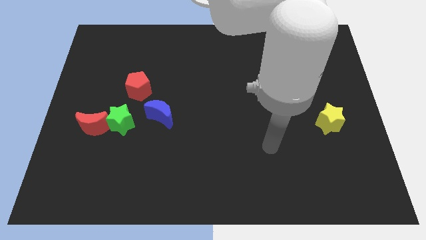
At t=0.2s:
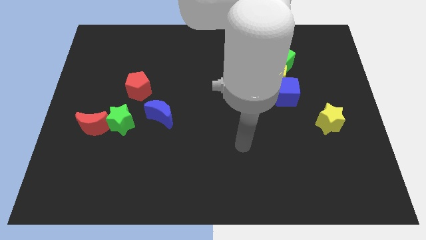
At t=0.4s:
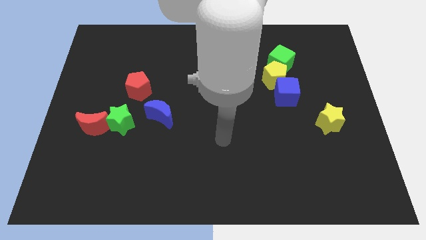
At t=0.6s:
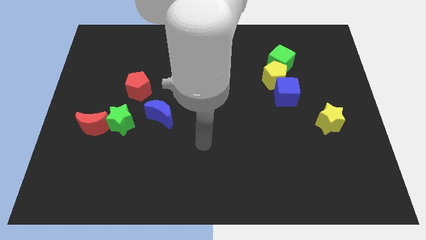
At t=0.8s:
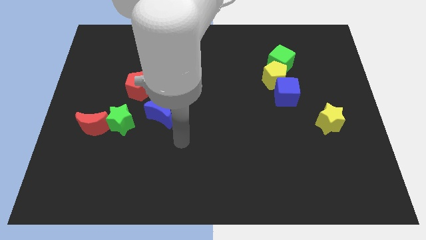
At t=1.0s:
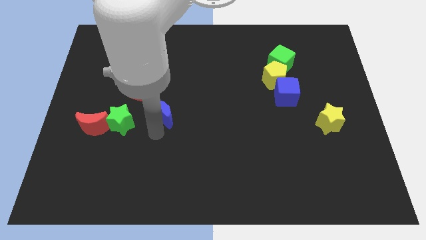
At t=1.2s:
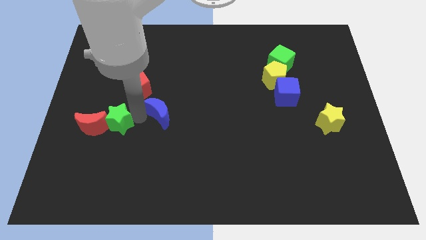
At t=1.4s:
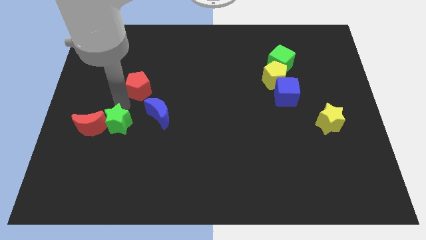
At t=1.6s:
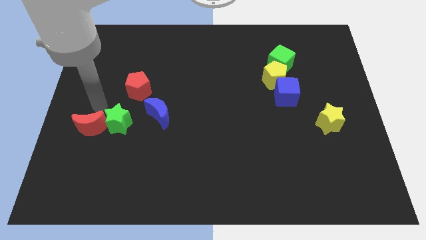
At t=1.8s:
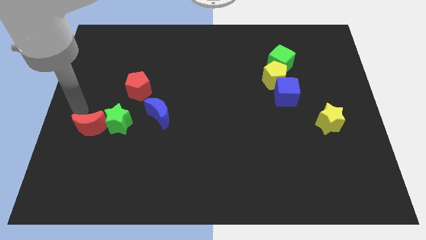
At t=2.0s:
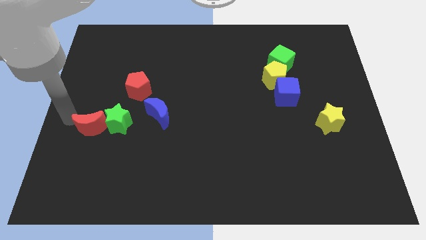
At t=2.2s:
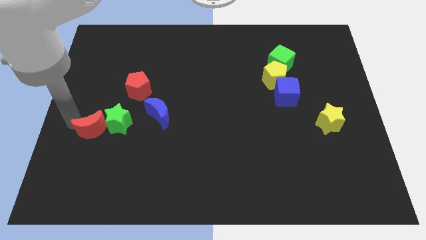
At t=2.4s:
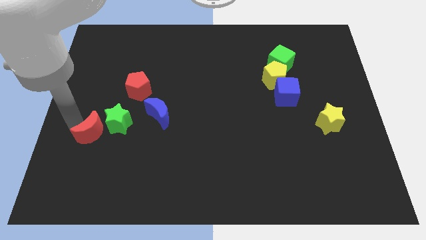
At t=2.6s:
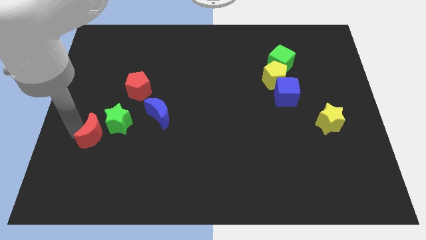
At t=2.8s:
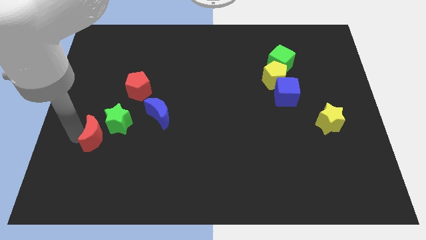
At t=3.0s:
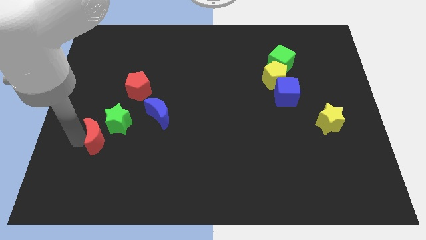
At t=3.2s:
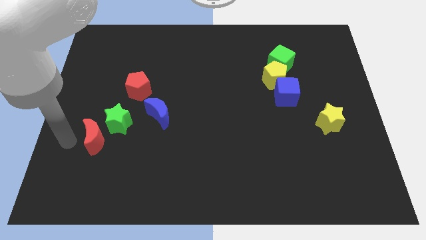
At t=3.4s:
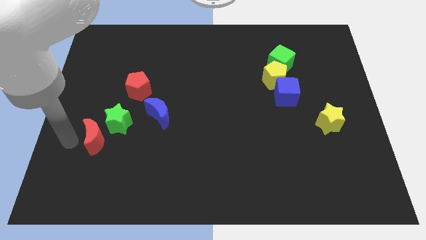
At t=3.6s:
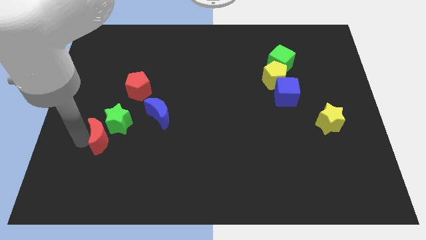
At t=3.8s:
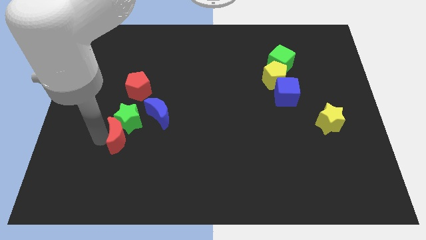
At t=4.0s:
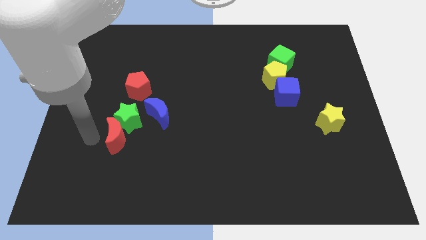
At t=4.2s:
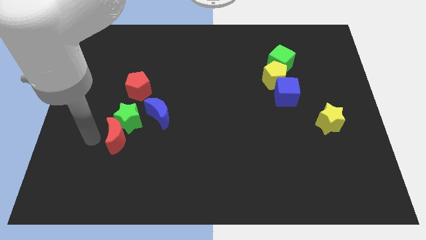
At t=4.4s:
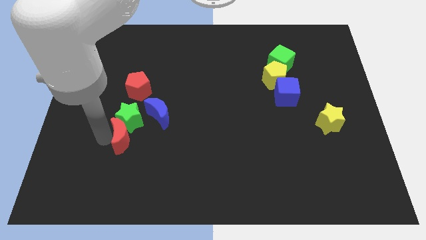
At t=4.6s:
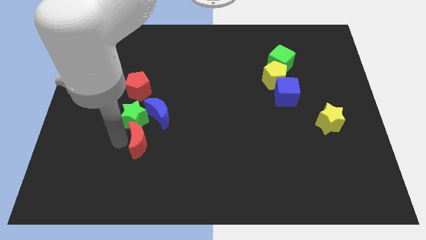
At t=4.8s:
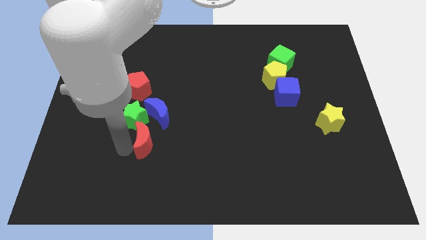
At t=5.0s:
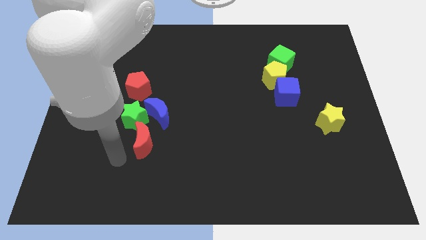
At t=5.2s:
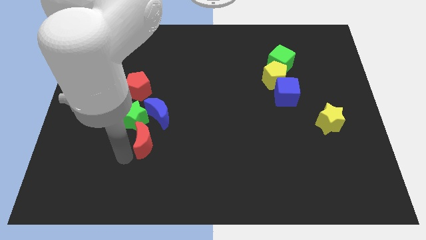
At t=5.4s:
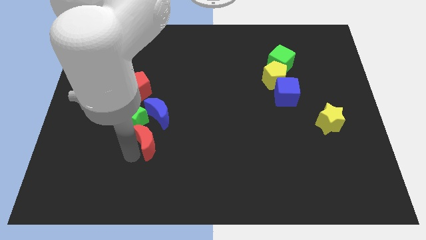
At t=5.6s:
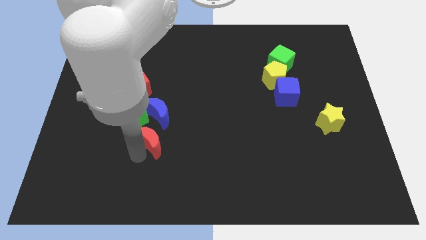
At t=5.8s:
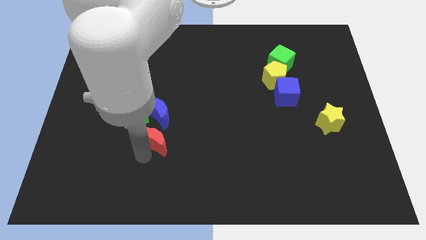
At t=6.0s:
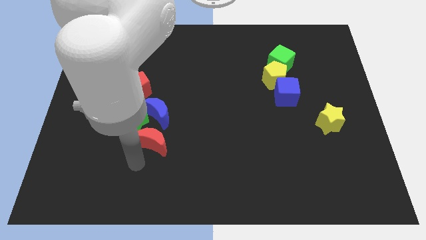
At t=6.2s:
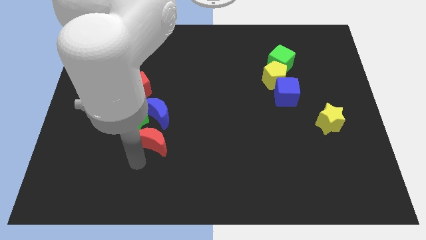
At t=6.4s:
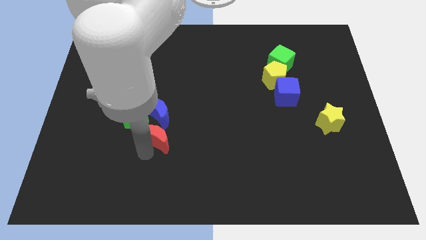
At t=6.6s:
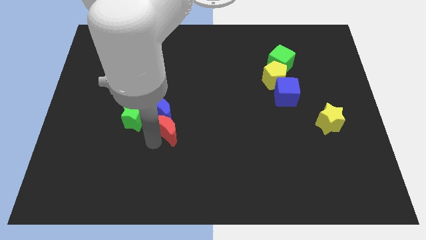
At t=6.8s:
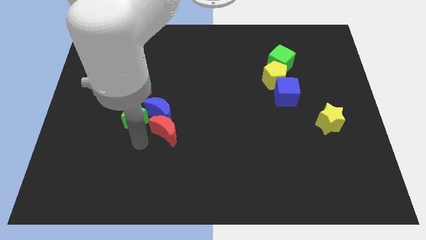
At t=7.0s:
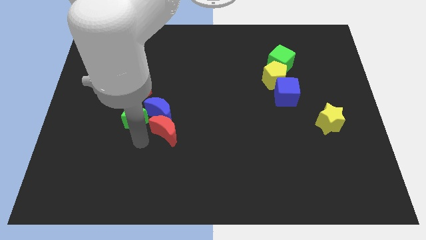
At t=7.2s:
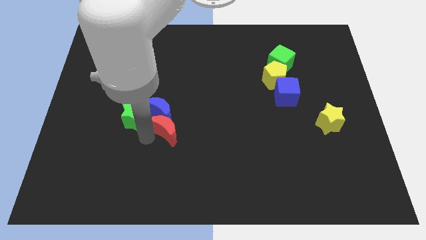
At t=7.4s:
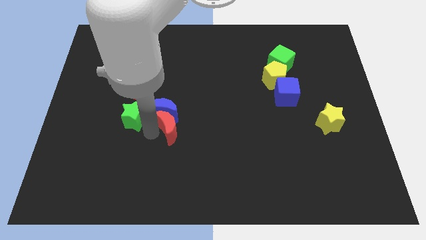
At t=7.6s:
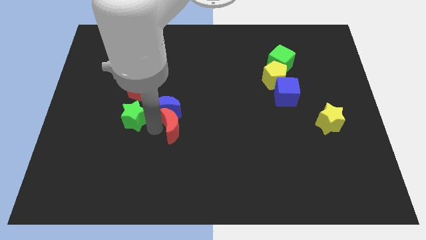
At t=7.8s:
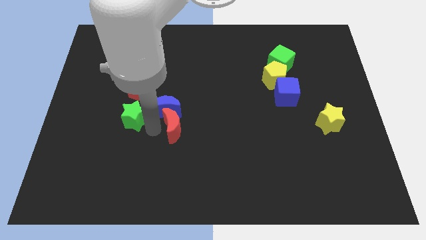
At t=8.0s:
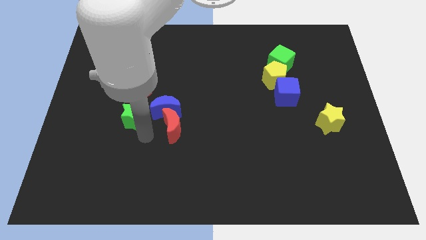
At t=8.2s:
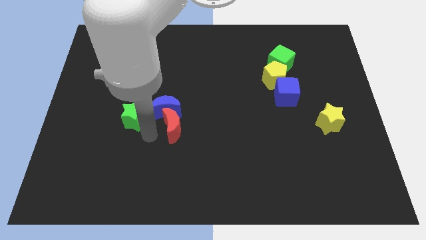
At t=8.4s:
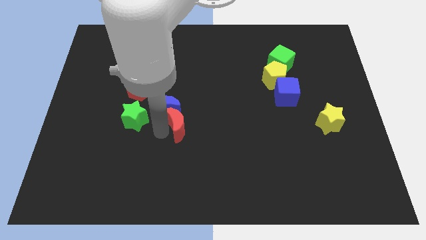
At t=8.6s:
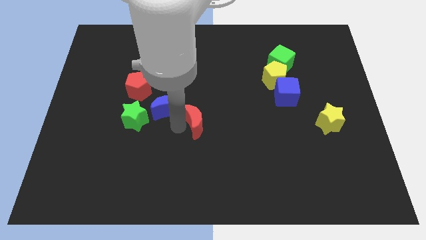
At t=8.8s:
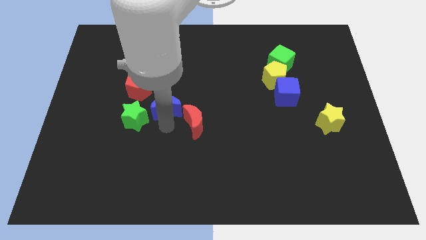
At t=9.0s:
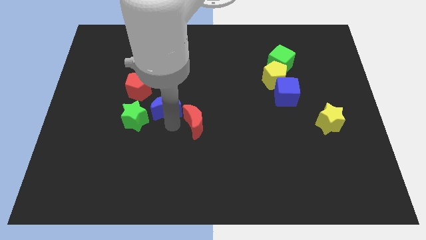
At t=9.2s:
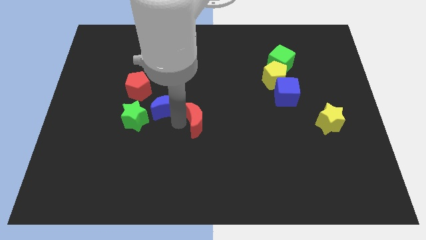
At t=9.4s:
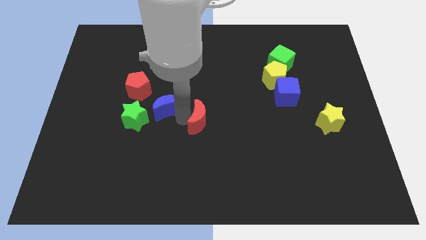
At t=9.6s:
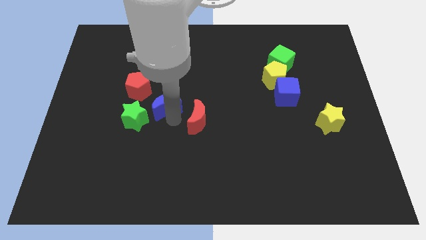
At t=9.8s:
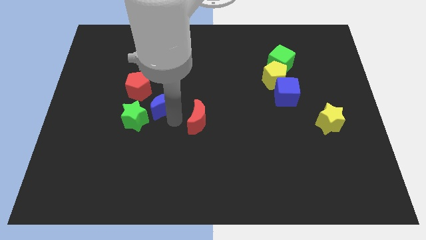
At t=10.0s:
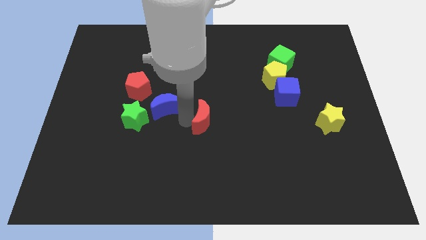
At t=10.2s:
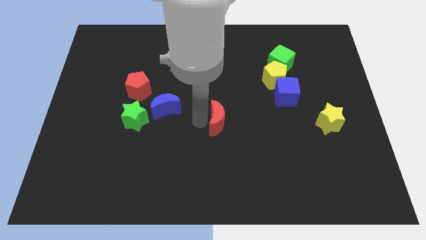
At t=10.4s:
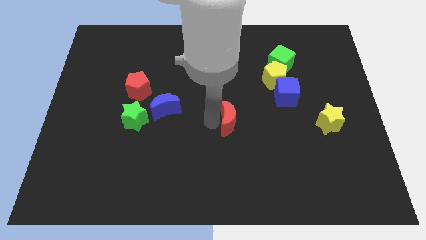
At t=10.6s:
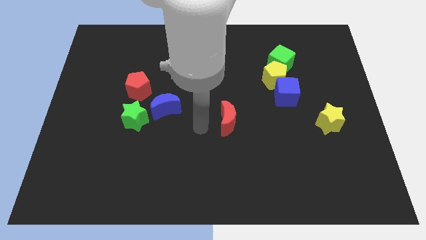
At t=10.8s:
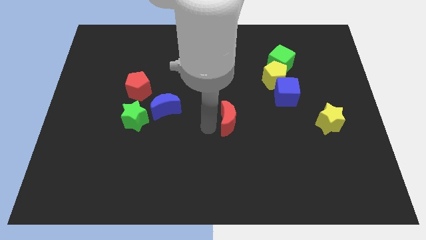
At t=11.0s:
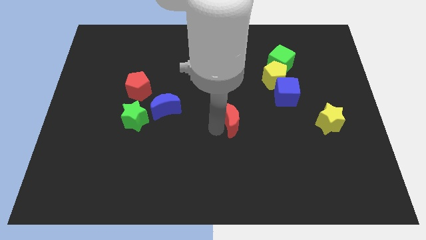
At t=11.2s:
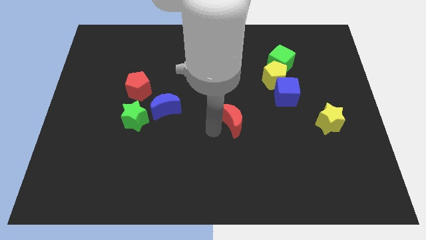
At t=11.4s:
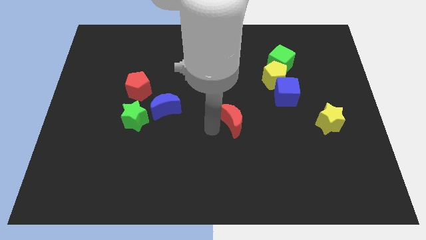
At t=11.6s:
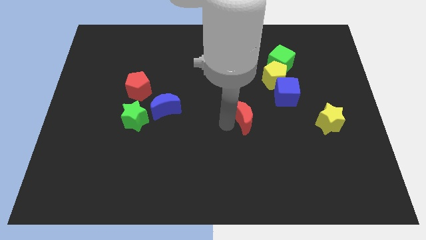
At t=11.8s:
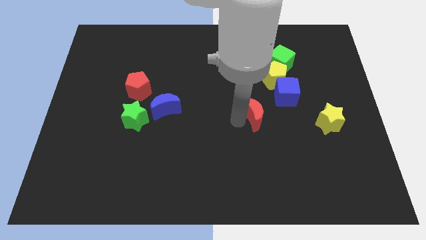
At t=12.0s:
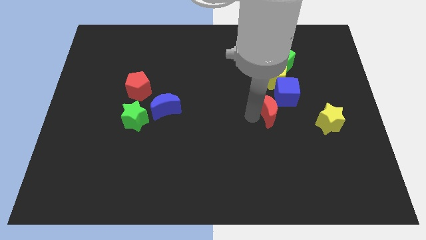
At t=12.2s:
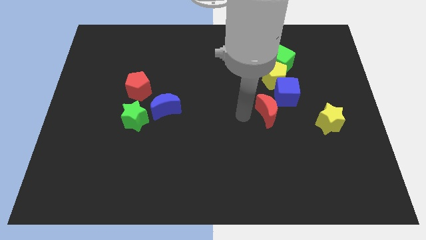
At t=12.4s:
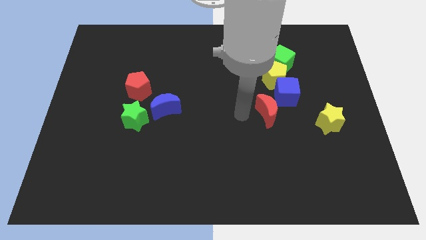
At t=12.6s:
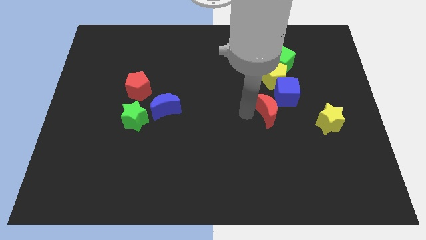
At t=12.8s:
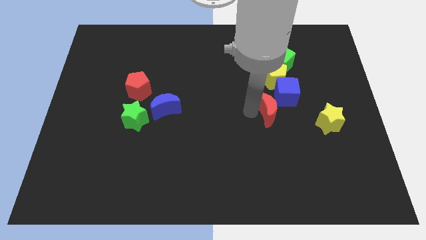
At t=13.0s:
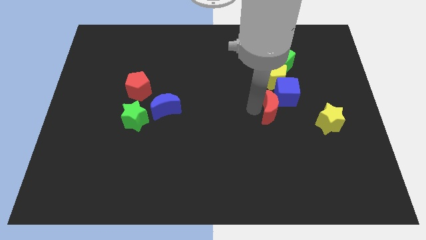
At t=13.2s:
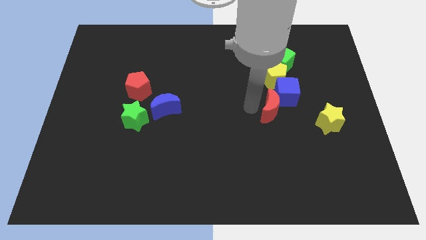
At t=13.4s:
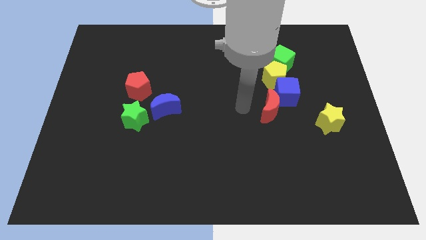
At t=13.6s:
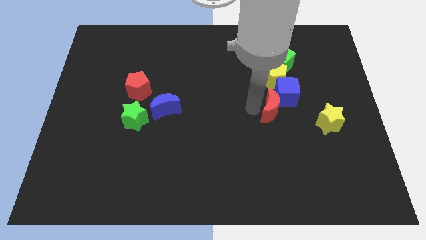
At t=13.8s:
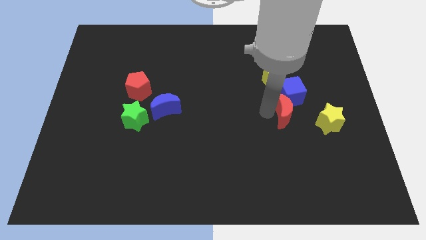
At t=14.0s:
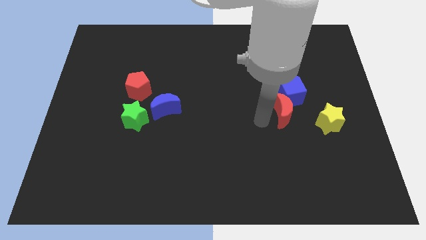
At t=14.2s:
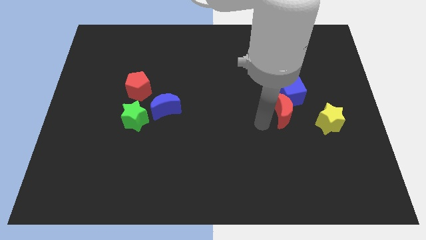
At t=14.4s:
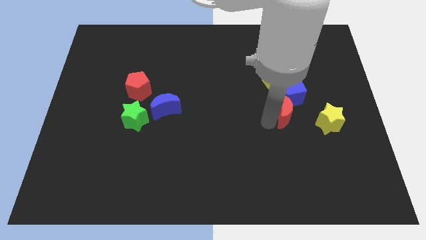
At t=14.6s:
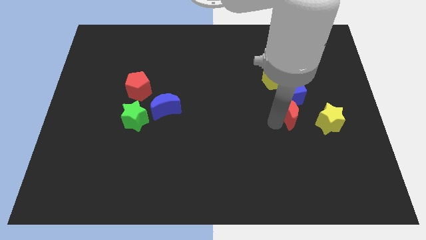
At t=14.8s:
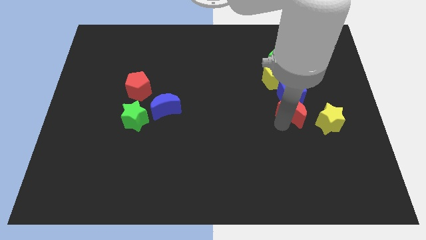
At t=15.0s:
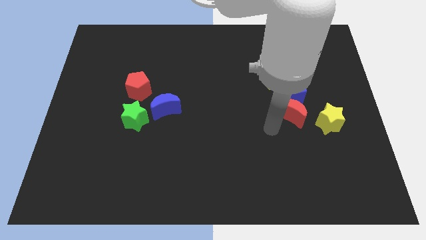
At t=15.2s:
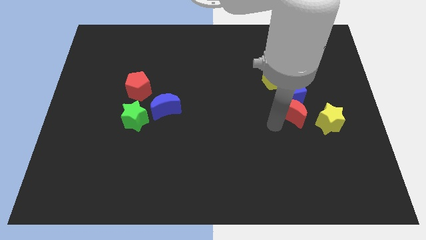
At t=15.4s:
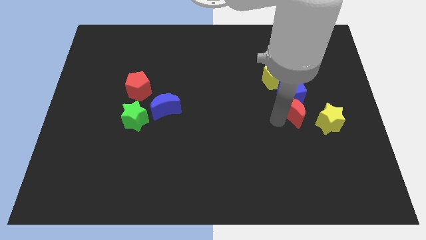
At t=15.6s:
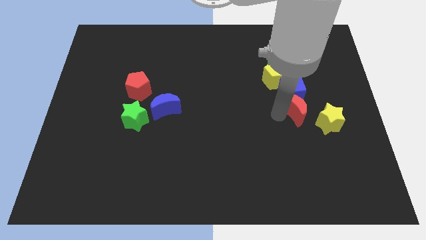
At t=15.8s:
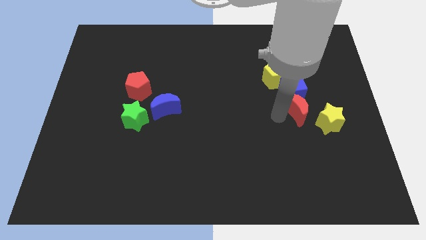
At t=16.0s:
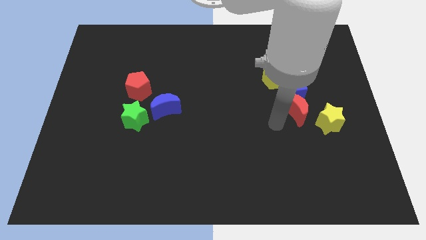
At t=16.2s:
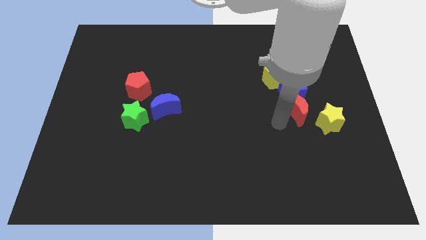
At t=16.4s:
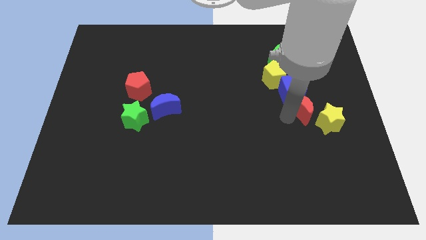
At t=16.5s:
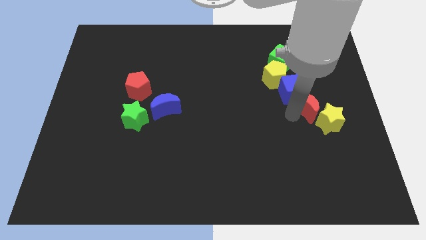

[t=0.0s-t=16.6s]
slide the red moon above the yellow star
